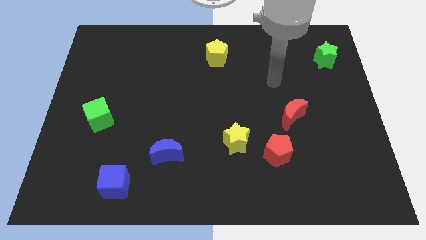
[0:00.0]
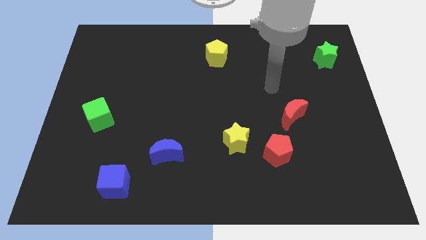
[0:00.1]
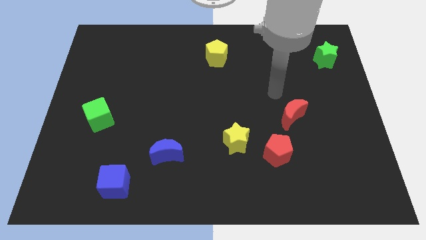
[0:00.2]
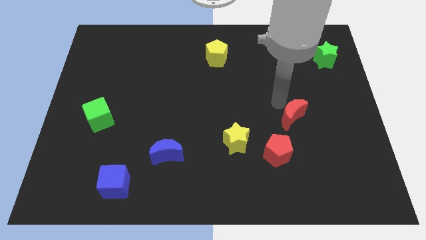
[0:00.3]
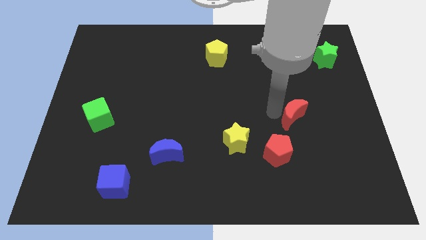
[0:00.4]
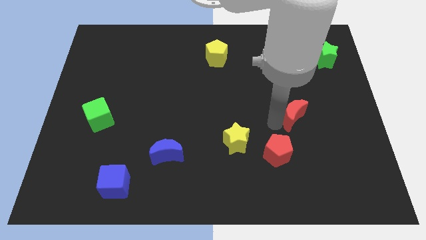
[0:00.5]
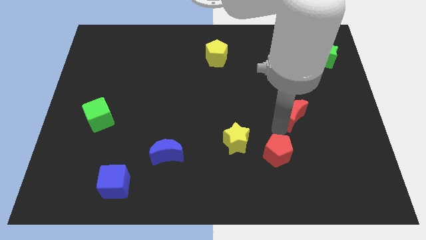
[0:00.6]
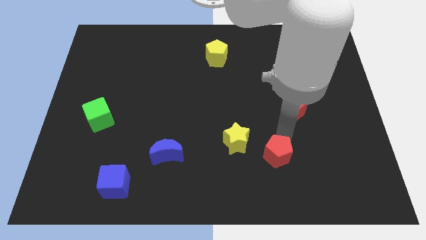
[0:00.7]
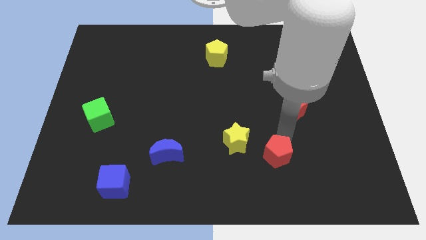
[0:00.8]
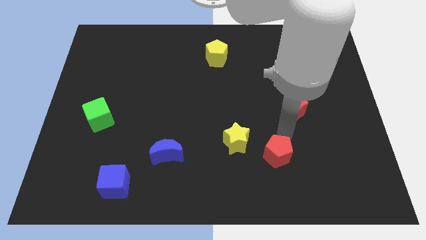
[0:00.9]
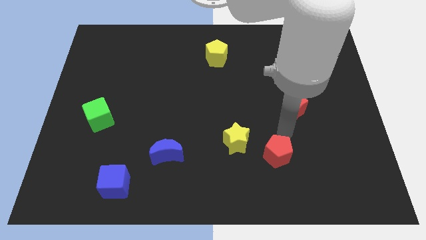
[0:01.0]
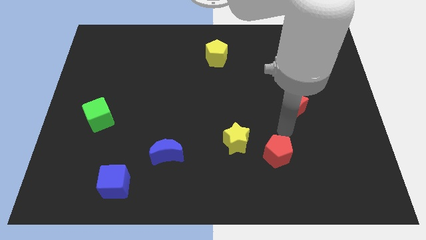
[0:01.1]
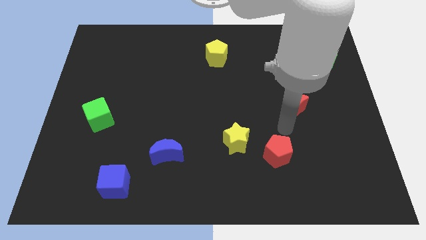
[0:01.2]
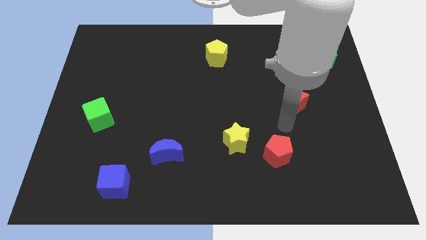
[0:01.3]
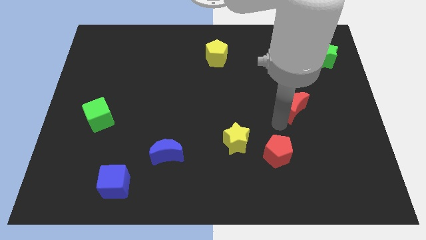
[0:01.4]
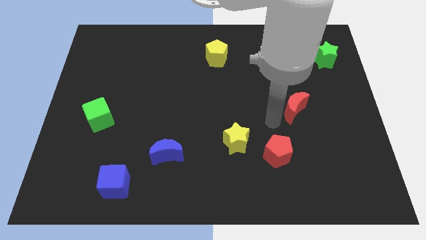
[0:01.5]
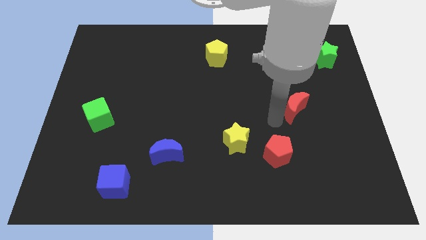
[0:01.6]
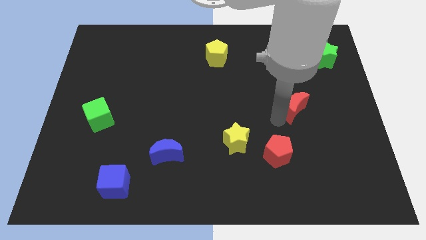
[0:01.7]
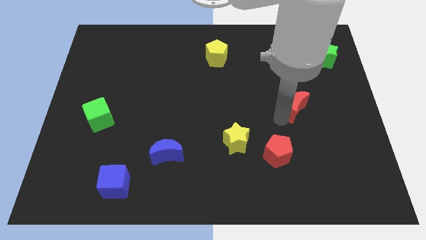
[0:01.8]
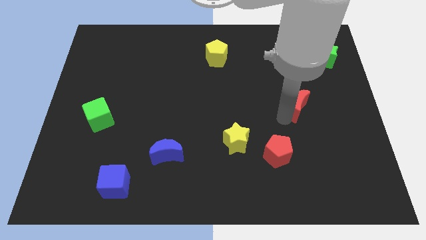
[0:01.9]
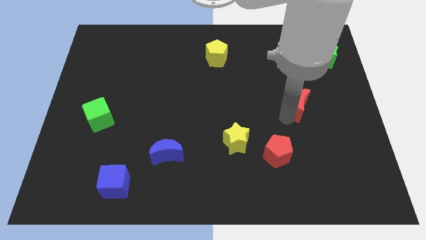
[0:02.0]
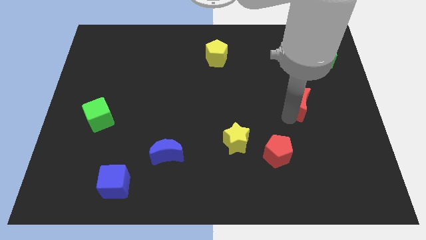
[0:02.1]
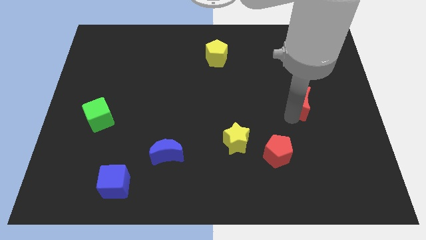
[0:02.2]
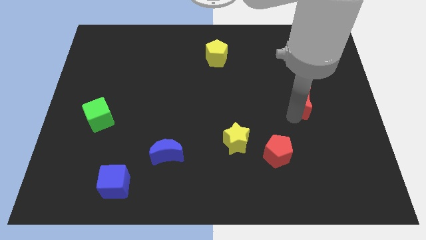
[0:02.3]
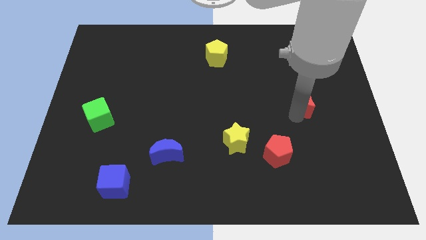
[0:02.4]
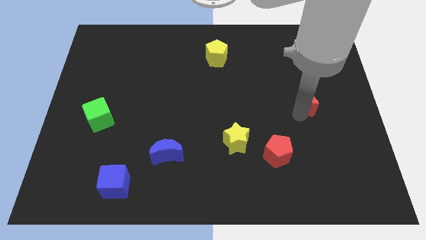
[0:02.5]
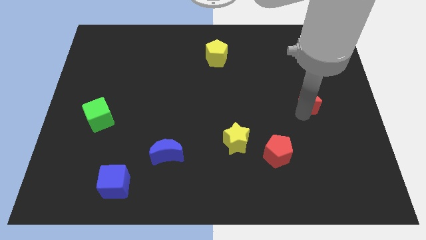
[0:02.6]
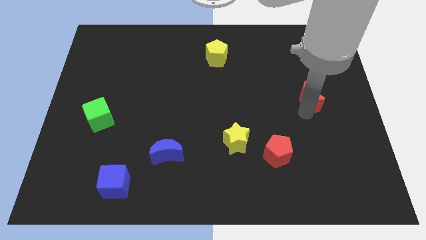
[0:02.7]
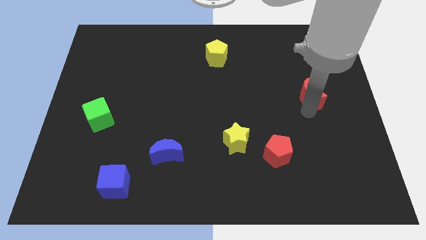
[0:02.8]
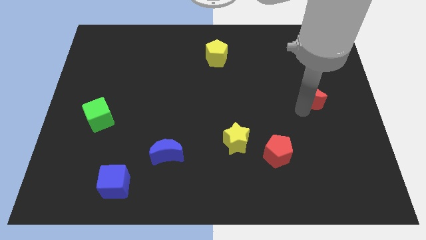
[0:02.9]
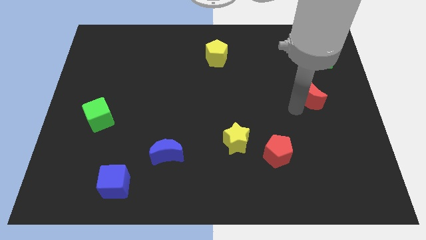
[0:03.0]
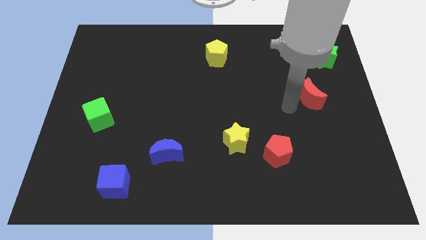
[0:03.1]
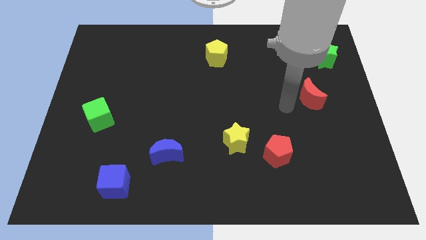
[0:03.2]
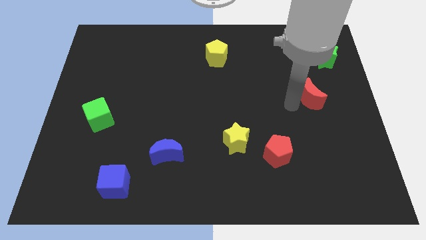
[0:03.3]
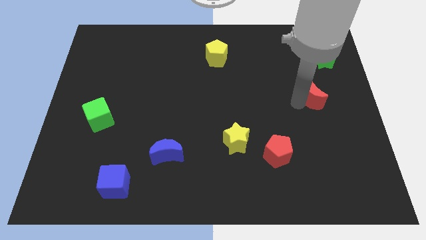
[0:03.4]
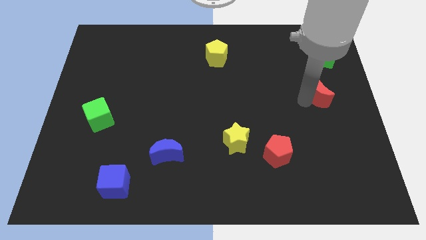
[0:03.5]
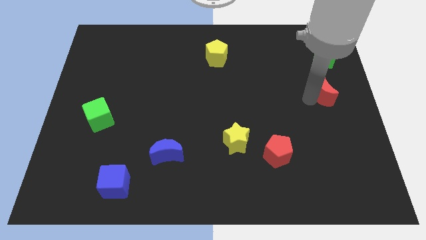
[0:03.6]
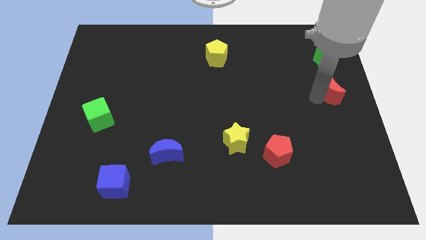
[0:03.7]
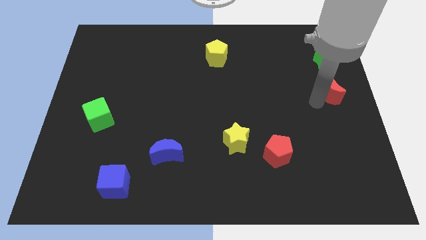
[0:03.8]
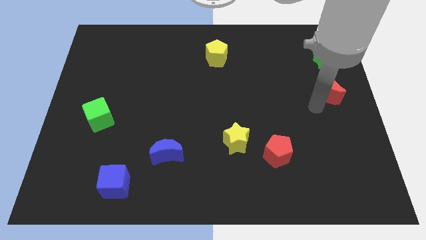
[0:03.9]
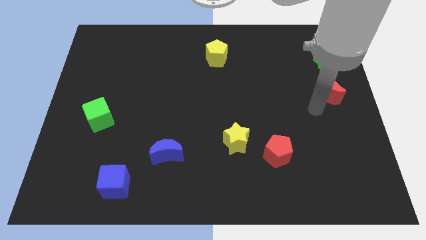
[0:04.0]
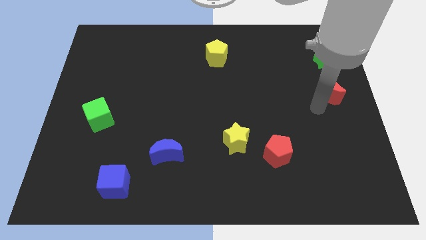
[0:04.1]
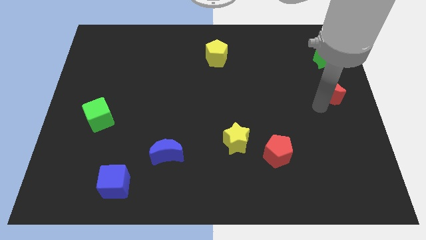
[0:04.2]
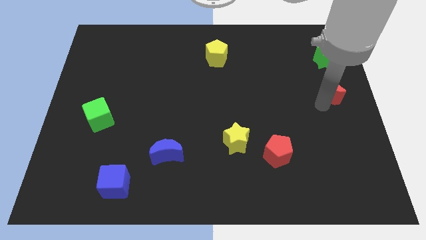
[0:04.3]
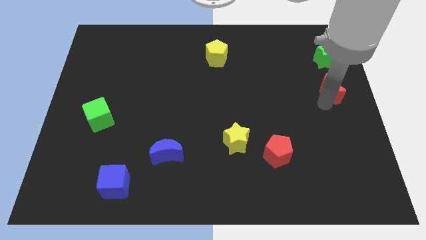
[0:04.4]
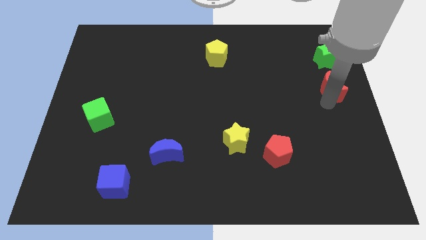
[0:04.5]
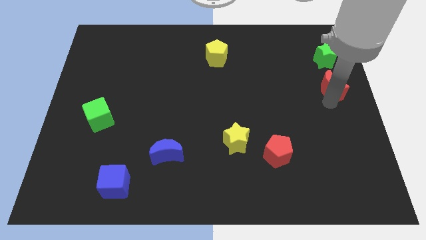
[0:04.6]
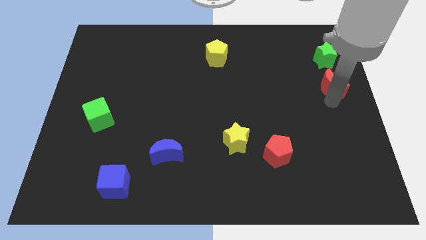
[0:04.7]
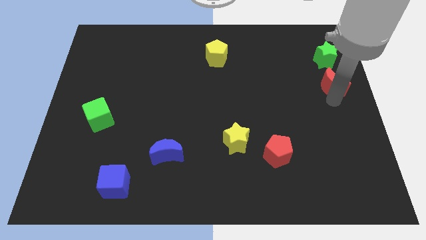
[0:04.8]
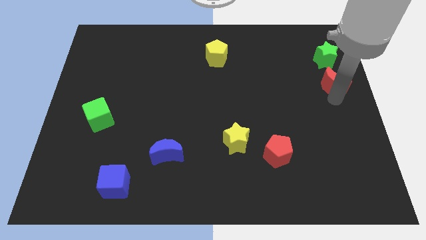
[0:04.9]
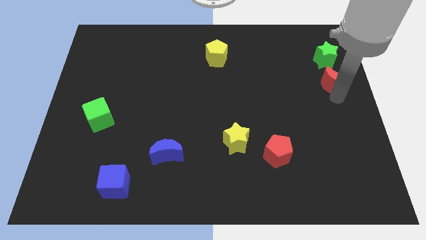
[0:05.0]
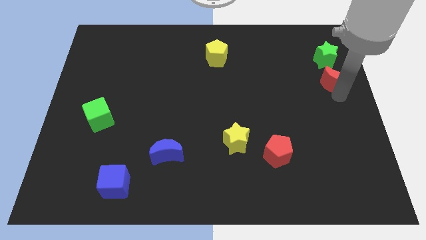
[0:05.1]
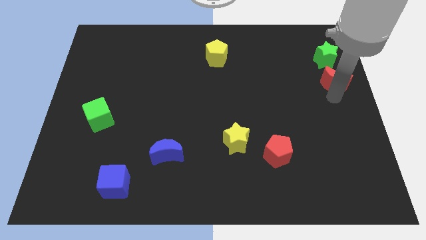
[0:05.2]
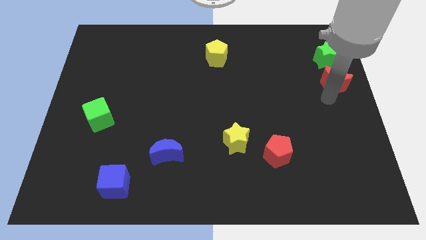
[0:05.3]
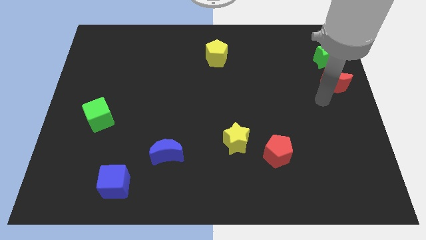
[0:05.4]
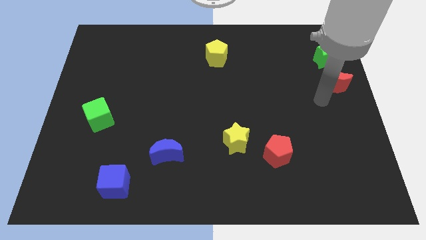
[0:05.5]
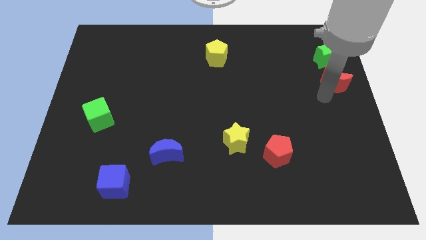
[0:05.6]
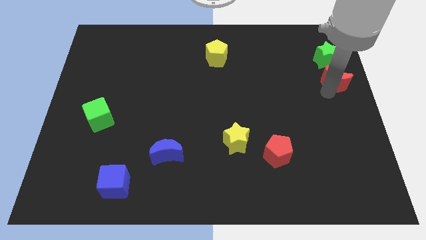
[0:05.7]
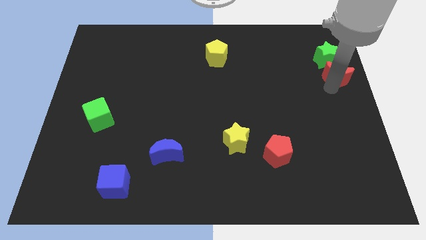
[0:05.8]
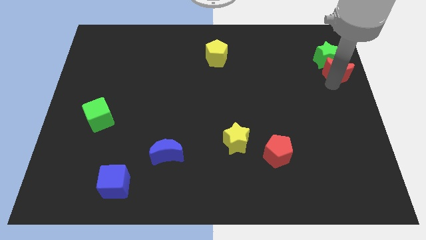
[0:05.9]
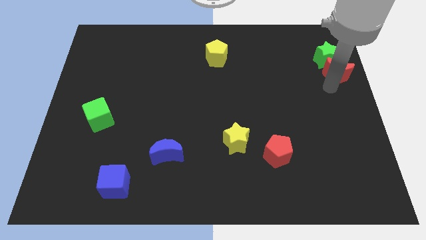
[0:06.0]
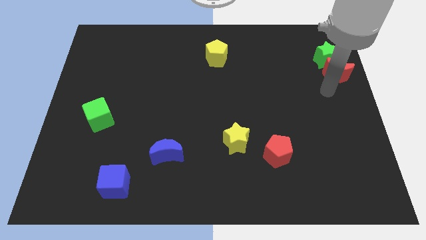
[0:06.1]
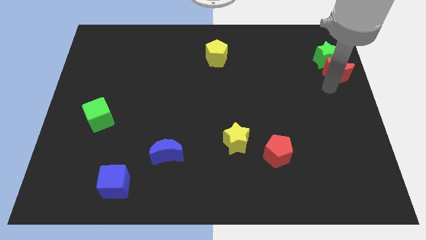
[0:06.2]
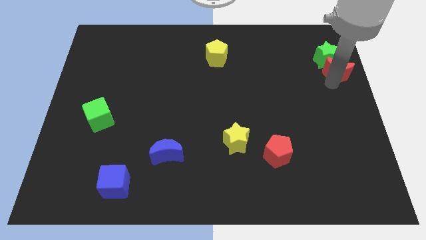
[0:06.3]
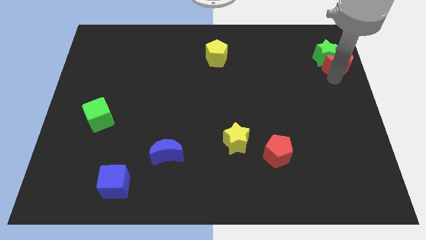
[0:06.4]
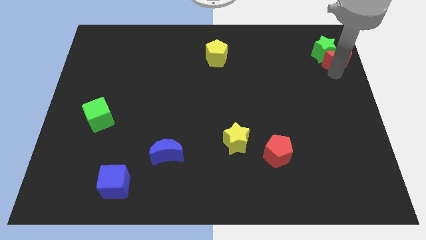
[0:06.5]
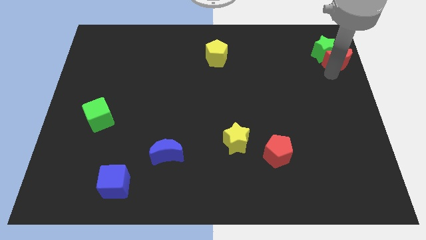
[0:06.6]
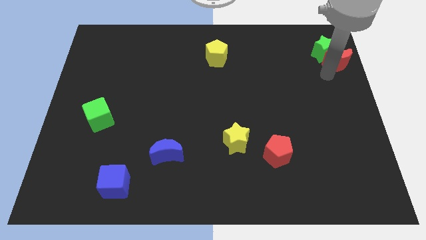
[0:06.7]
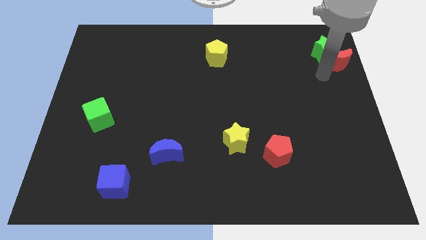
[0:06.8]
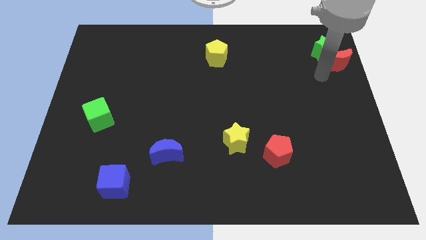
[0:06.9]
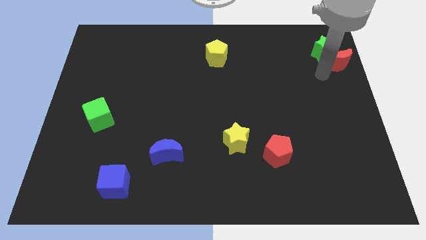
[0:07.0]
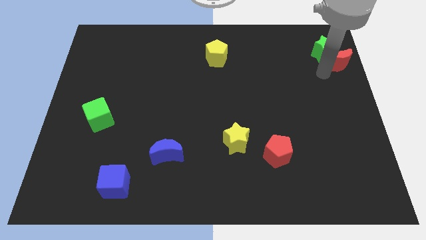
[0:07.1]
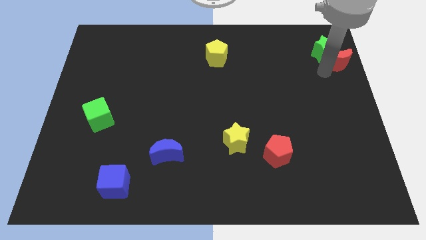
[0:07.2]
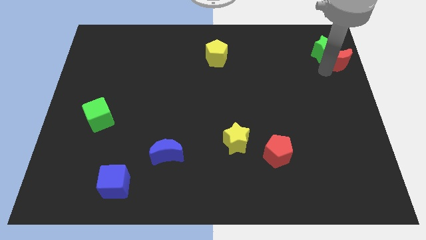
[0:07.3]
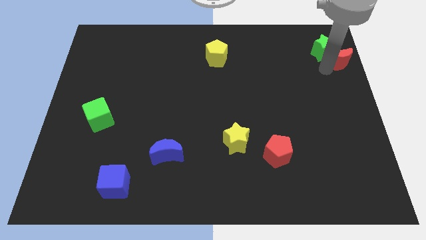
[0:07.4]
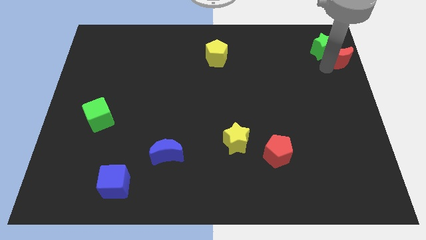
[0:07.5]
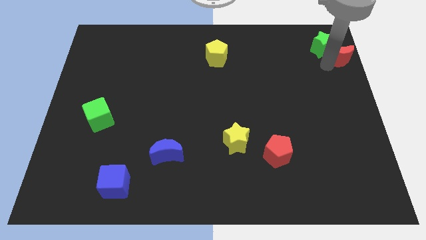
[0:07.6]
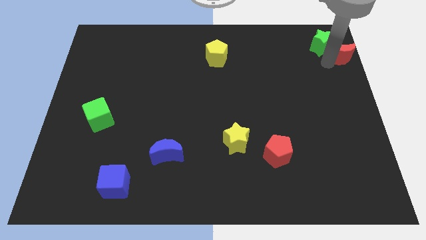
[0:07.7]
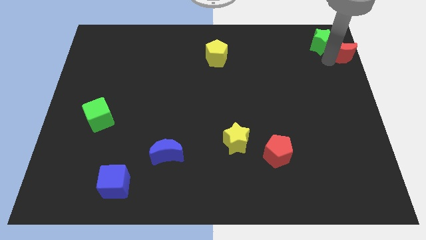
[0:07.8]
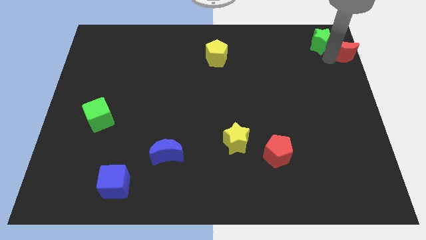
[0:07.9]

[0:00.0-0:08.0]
push the red moon to the top right

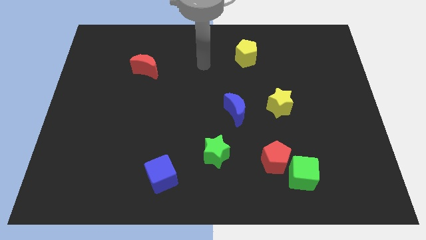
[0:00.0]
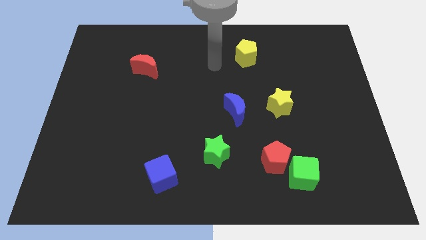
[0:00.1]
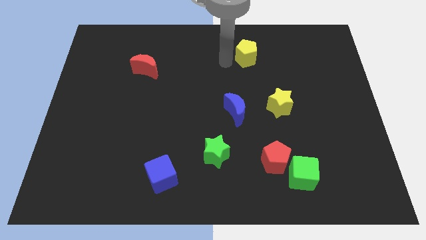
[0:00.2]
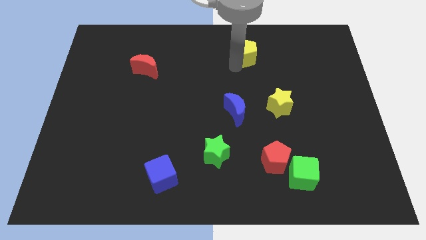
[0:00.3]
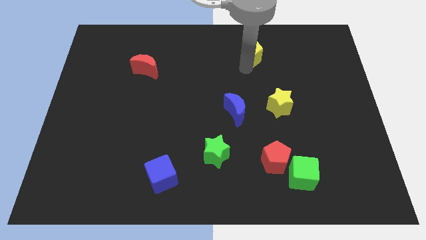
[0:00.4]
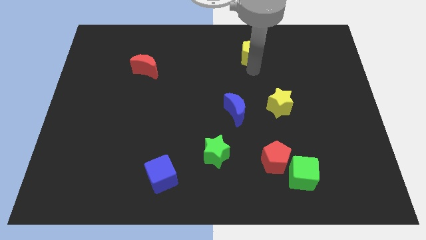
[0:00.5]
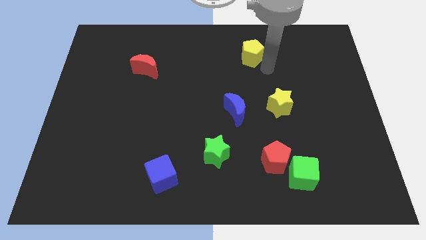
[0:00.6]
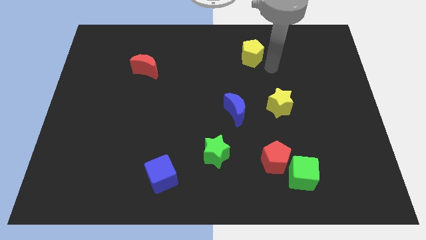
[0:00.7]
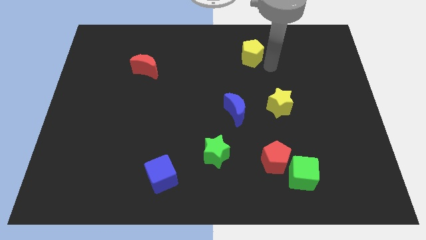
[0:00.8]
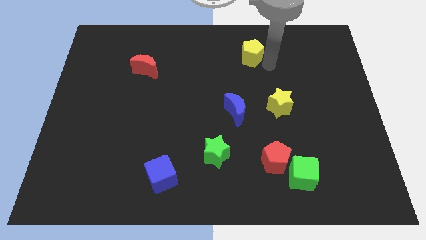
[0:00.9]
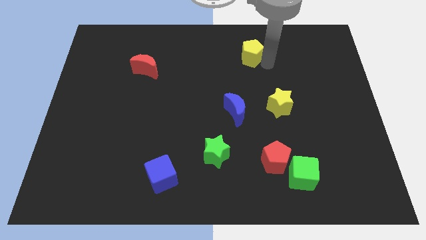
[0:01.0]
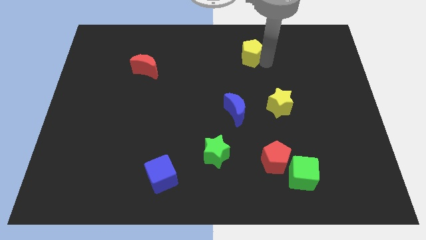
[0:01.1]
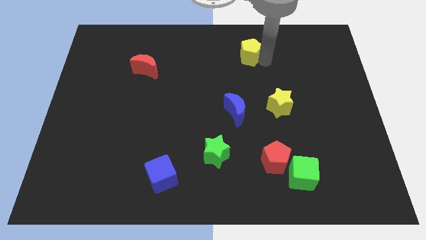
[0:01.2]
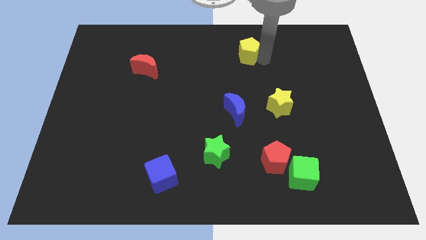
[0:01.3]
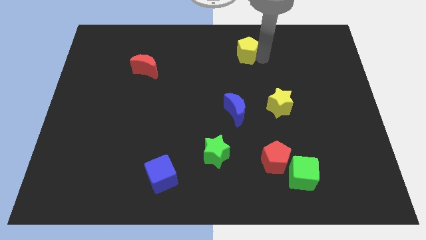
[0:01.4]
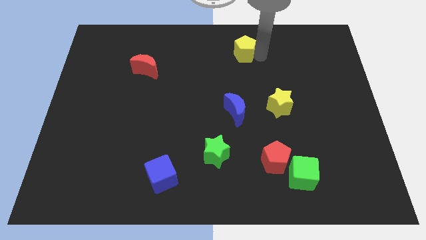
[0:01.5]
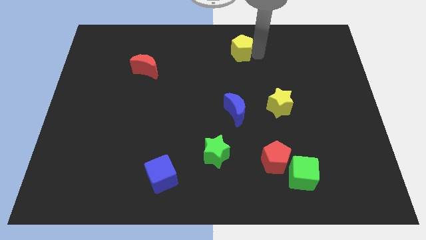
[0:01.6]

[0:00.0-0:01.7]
put the yellow pentagon to the top side
